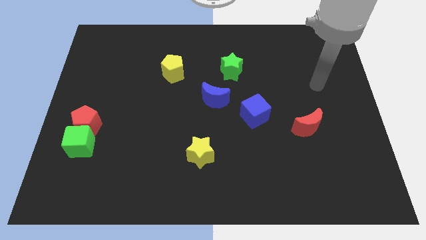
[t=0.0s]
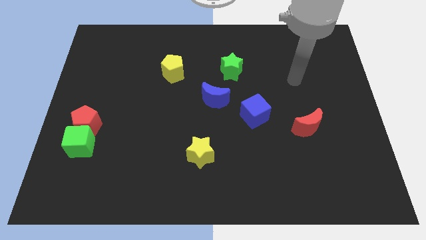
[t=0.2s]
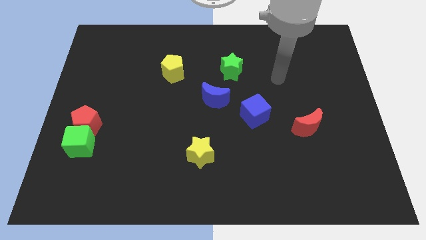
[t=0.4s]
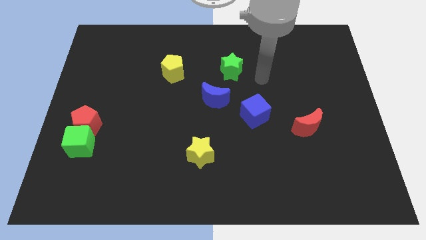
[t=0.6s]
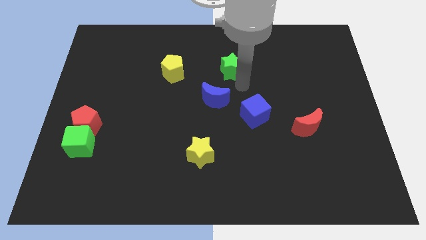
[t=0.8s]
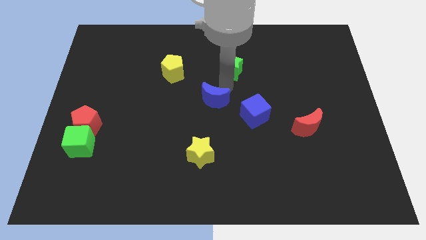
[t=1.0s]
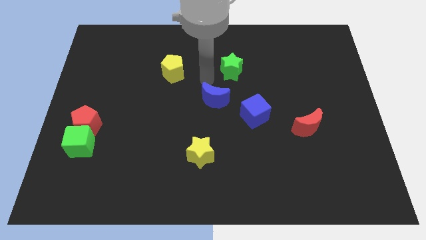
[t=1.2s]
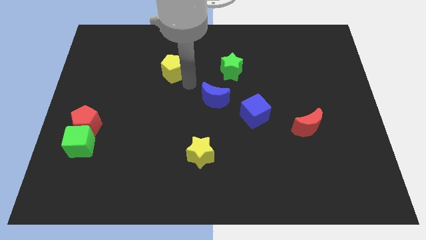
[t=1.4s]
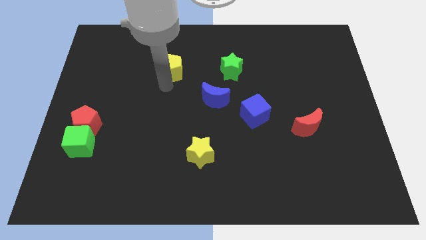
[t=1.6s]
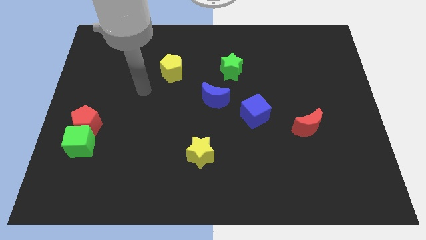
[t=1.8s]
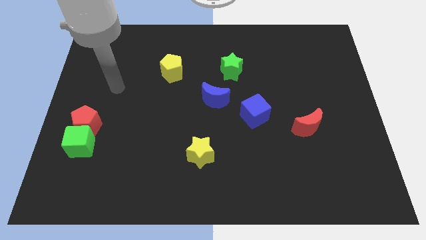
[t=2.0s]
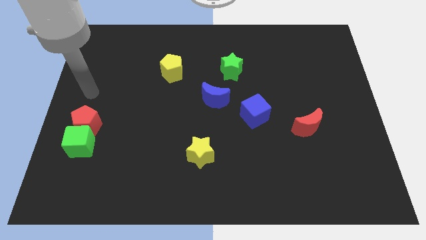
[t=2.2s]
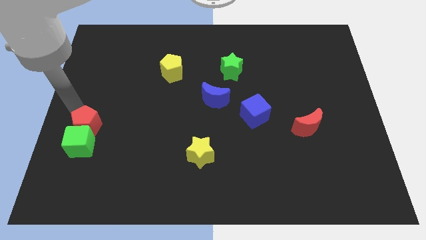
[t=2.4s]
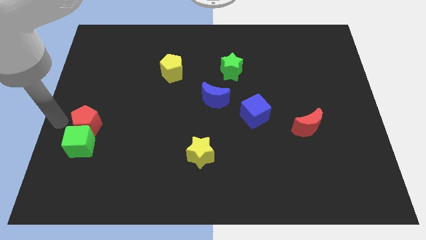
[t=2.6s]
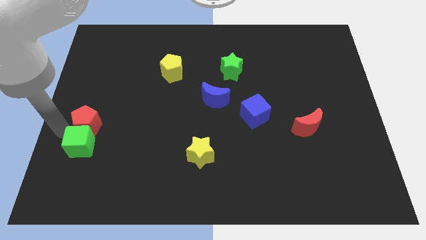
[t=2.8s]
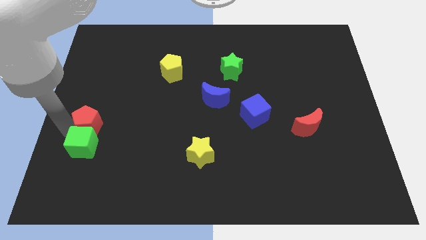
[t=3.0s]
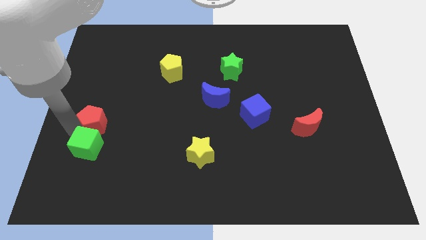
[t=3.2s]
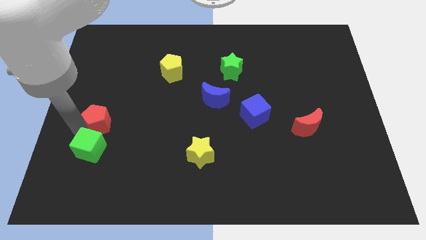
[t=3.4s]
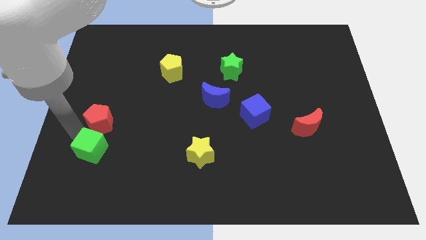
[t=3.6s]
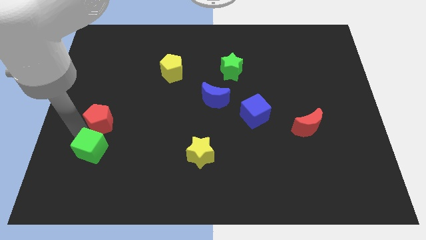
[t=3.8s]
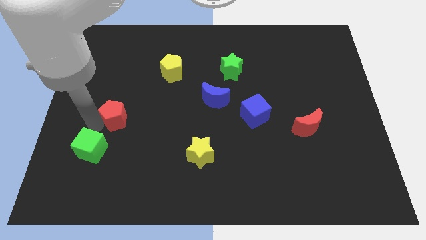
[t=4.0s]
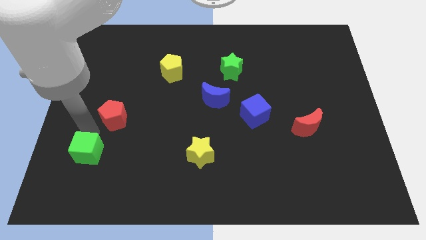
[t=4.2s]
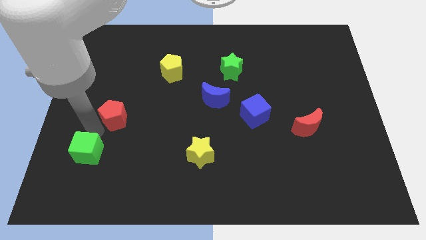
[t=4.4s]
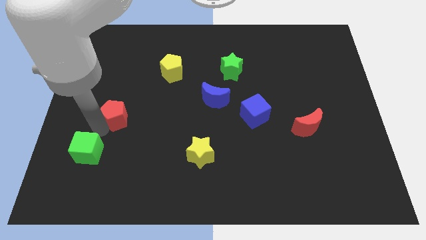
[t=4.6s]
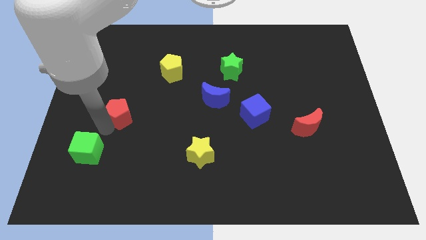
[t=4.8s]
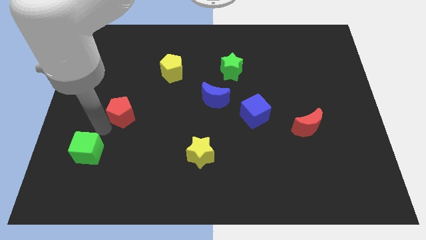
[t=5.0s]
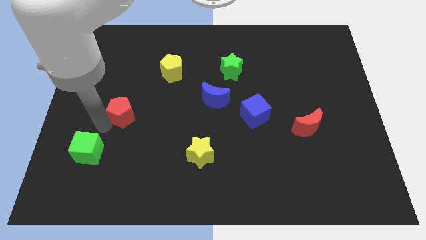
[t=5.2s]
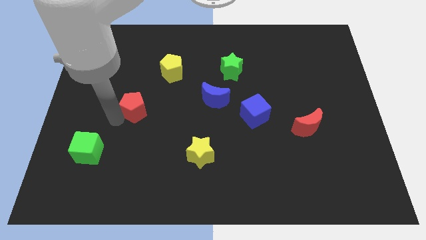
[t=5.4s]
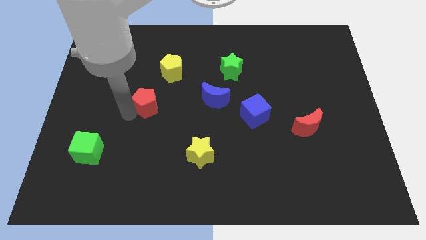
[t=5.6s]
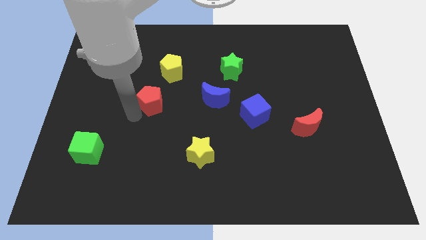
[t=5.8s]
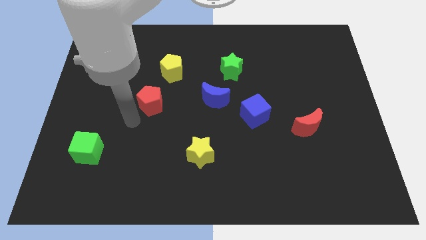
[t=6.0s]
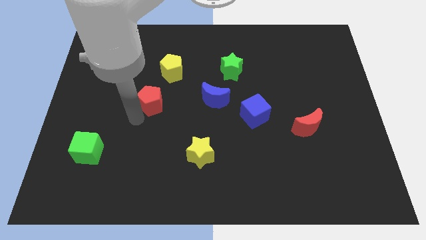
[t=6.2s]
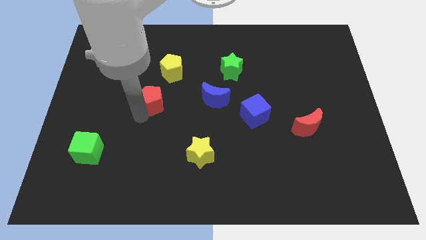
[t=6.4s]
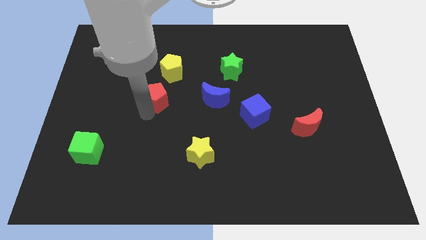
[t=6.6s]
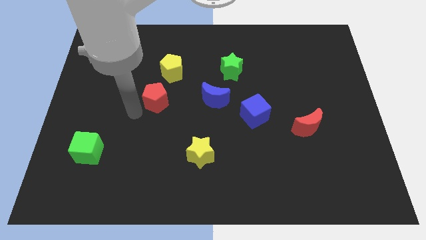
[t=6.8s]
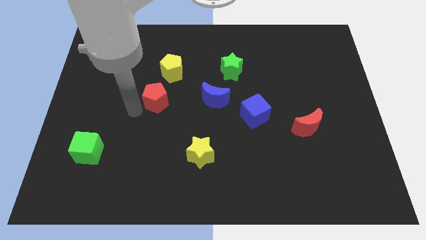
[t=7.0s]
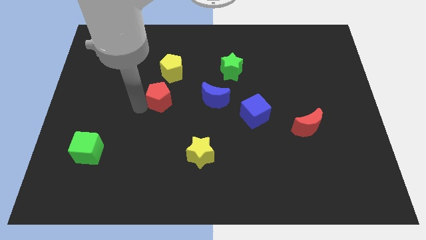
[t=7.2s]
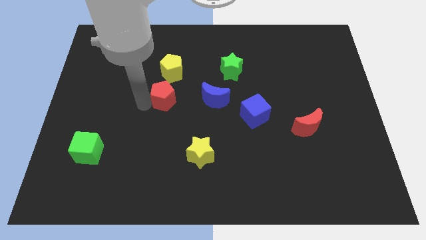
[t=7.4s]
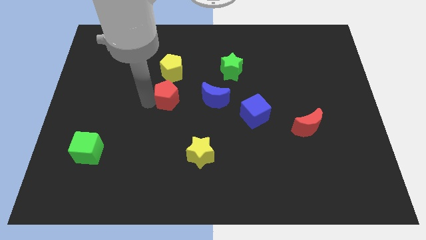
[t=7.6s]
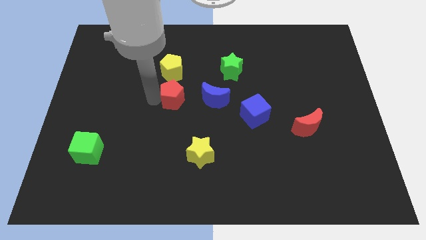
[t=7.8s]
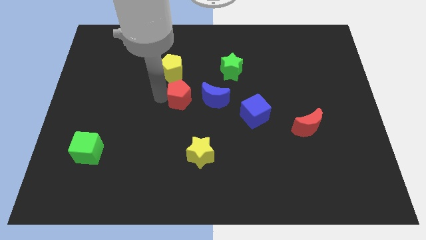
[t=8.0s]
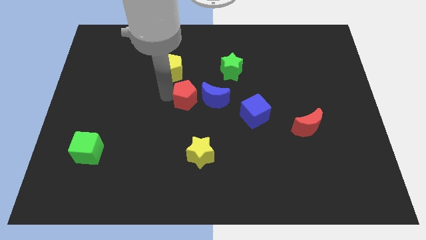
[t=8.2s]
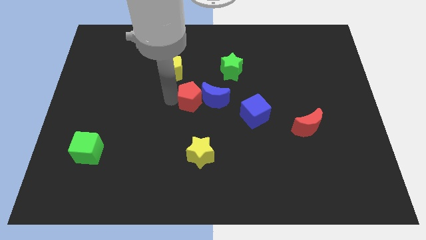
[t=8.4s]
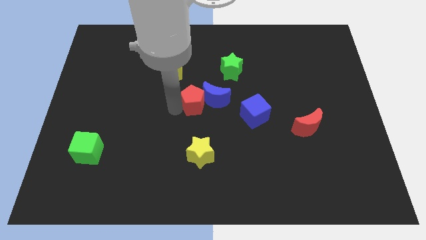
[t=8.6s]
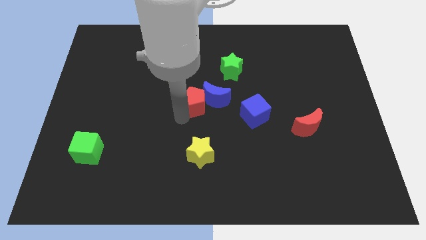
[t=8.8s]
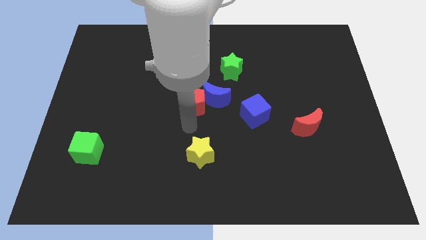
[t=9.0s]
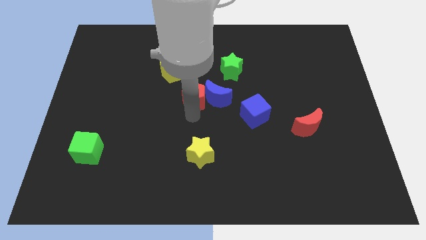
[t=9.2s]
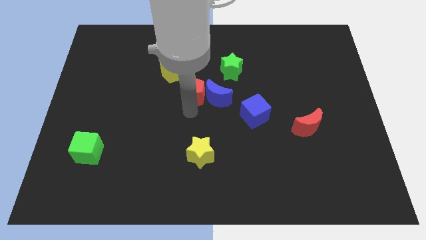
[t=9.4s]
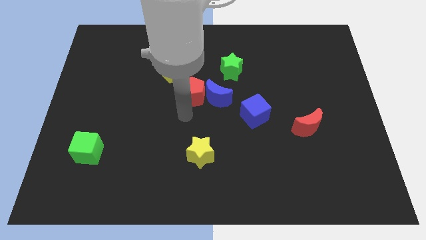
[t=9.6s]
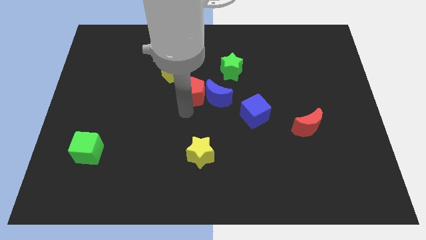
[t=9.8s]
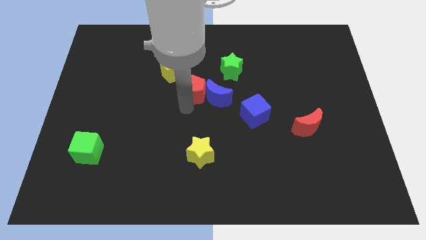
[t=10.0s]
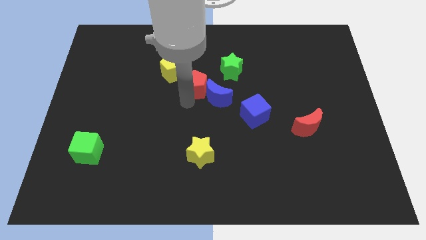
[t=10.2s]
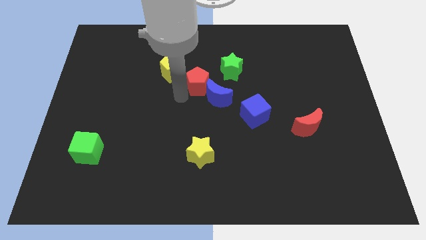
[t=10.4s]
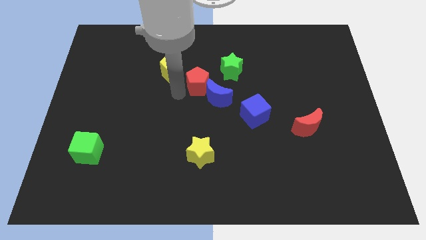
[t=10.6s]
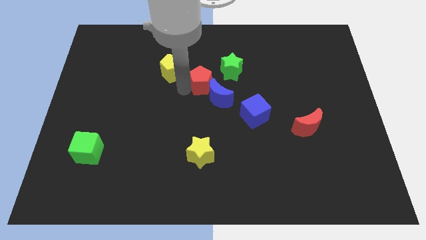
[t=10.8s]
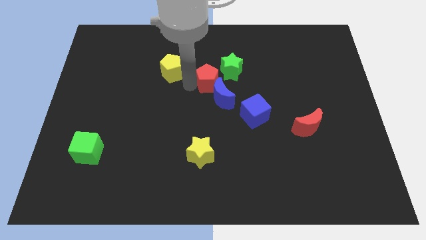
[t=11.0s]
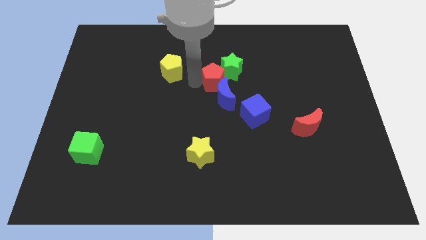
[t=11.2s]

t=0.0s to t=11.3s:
slide the red pentagon close to the green star

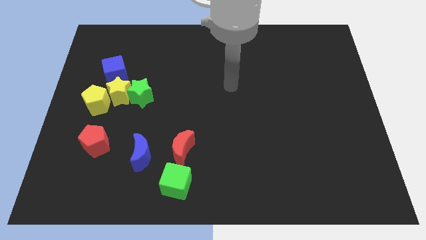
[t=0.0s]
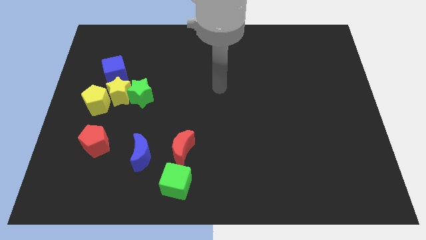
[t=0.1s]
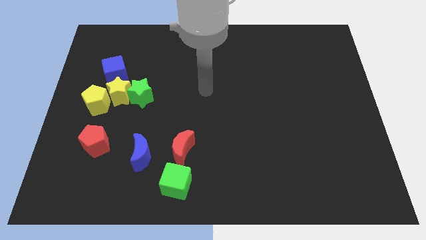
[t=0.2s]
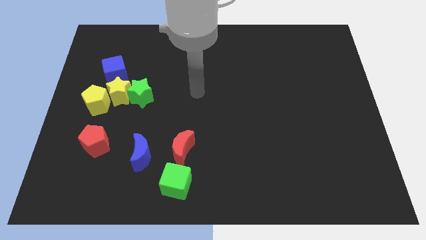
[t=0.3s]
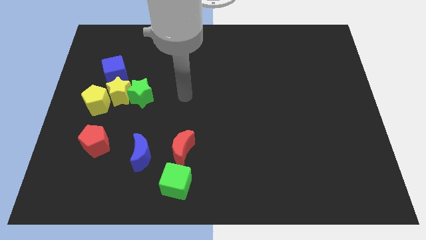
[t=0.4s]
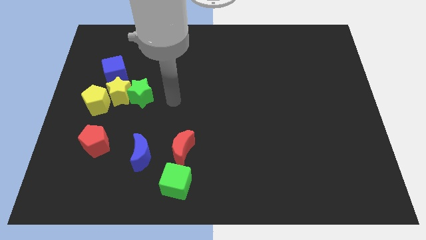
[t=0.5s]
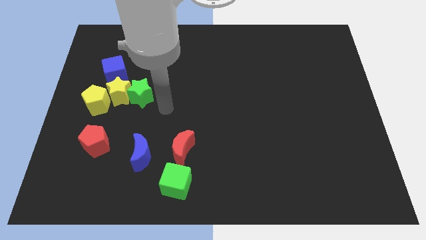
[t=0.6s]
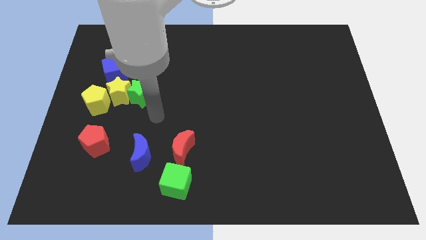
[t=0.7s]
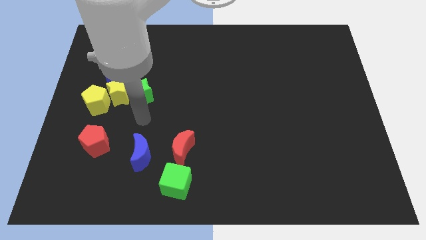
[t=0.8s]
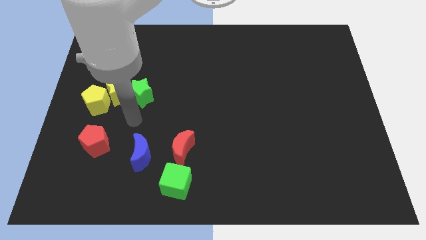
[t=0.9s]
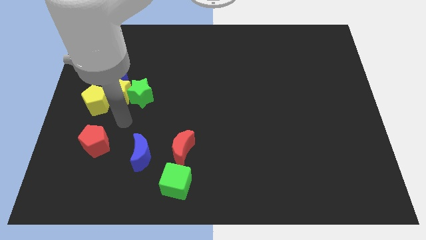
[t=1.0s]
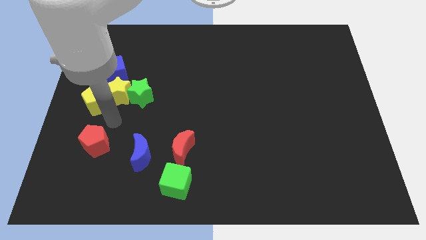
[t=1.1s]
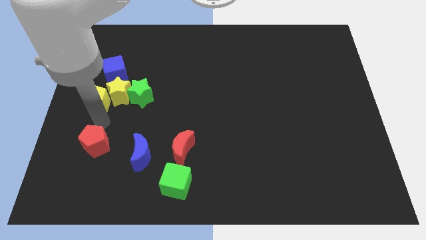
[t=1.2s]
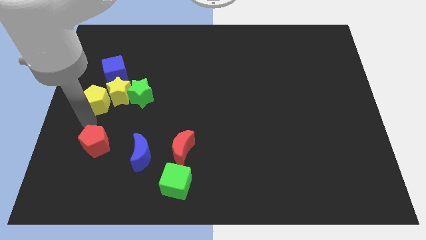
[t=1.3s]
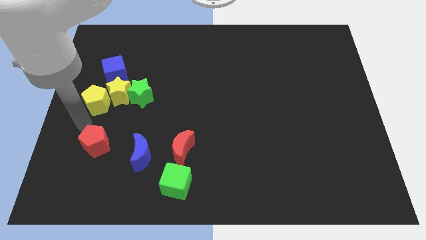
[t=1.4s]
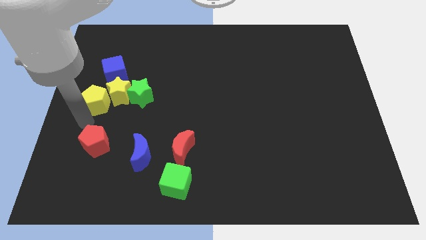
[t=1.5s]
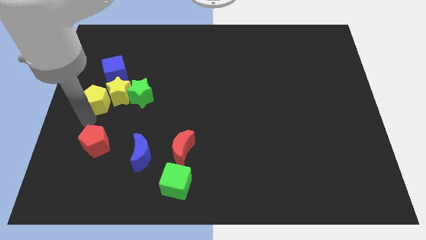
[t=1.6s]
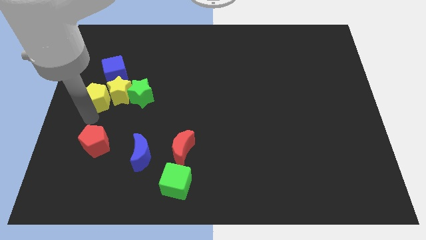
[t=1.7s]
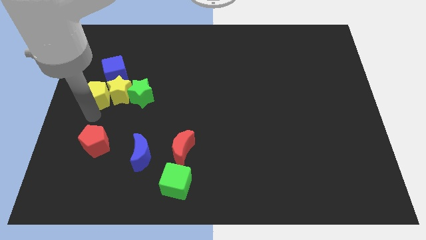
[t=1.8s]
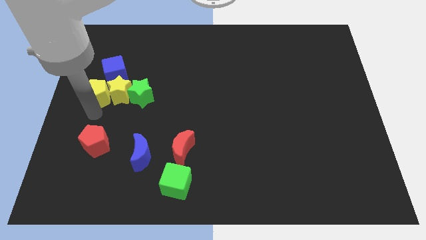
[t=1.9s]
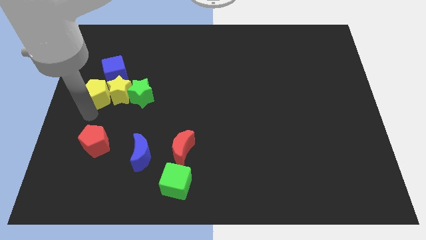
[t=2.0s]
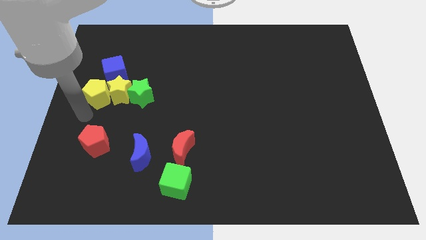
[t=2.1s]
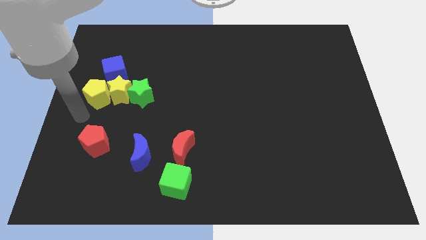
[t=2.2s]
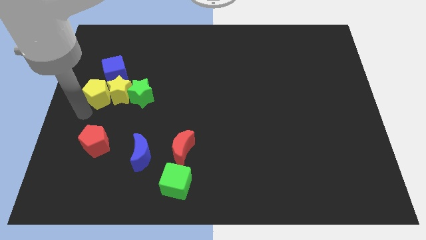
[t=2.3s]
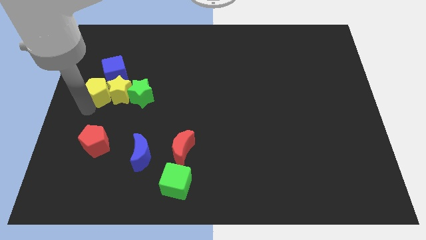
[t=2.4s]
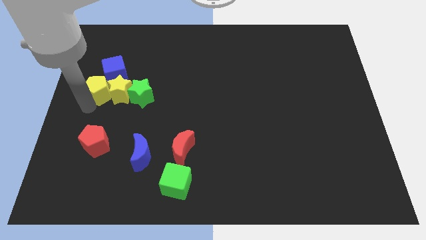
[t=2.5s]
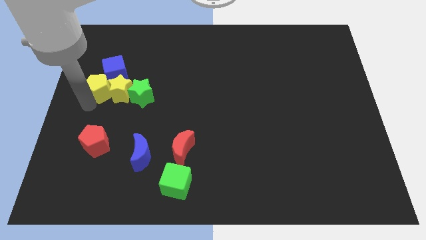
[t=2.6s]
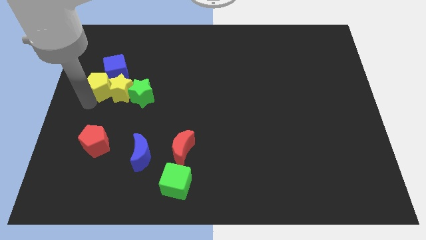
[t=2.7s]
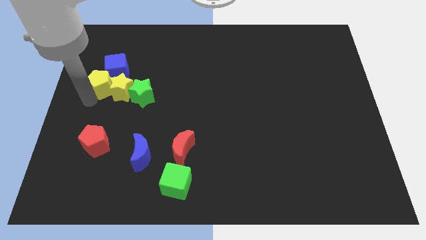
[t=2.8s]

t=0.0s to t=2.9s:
slide the yellow pentagon close to the blue cube
